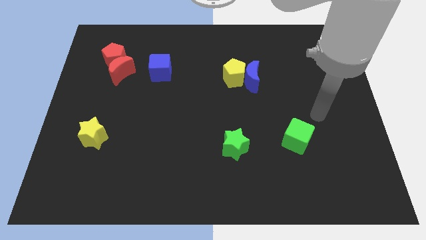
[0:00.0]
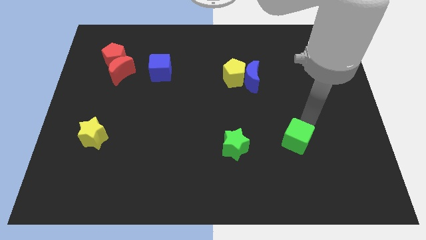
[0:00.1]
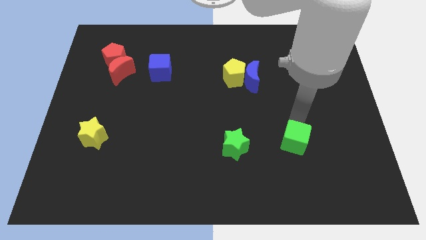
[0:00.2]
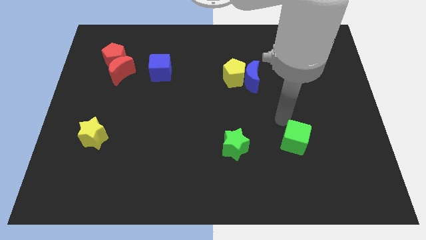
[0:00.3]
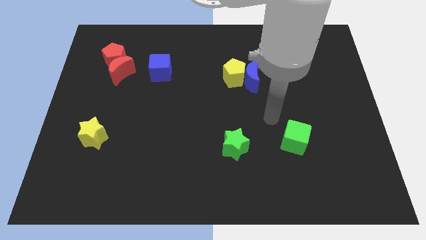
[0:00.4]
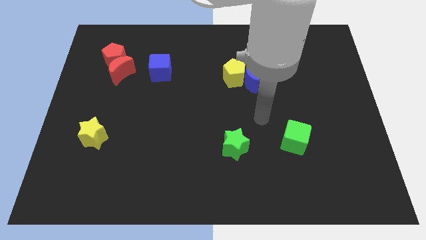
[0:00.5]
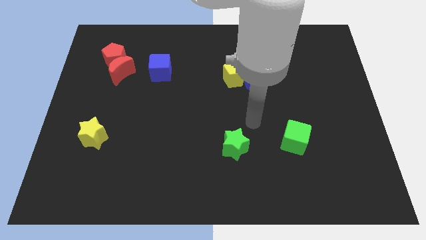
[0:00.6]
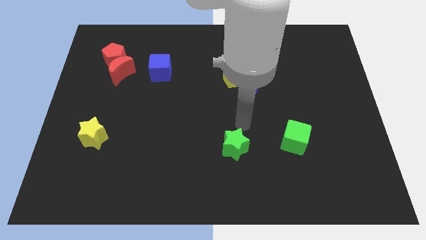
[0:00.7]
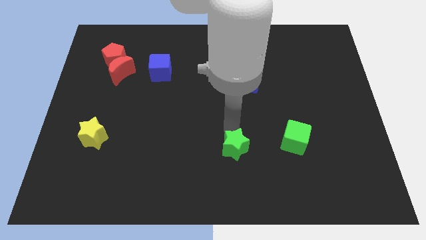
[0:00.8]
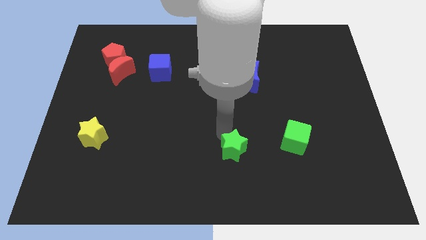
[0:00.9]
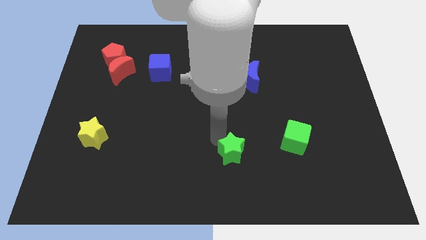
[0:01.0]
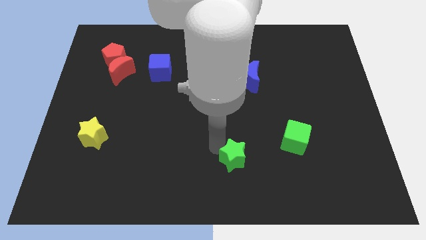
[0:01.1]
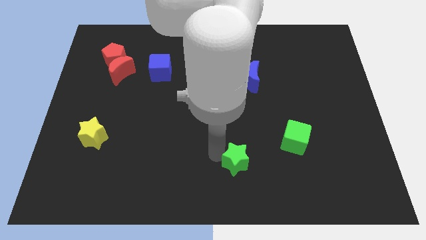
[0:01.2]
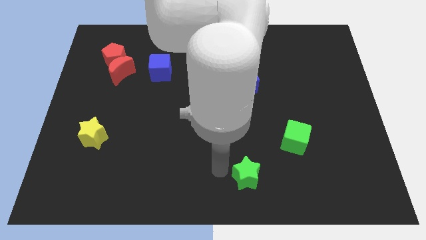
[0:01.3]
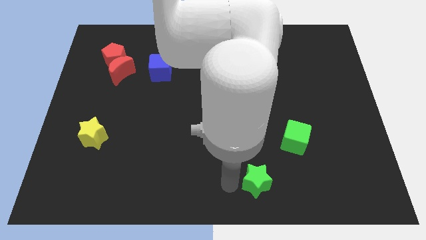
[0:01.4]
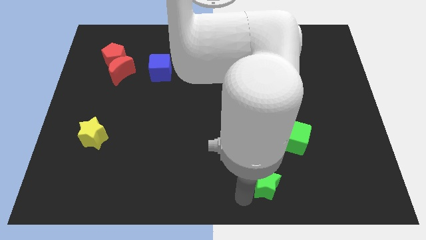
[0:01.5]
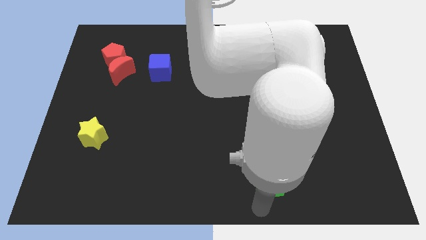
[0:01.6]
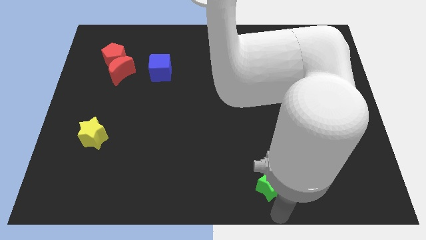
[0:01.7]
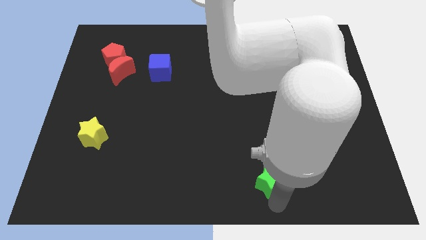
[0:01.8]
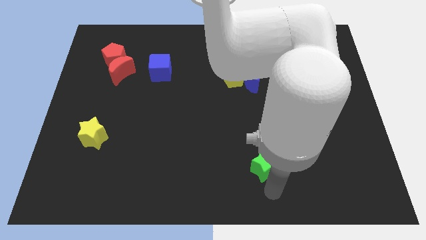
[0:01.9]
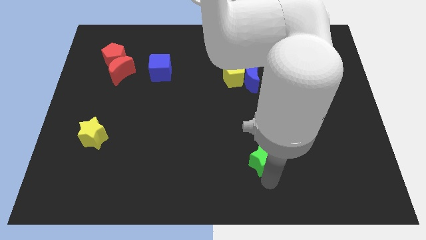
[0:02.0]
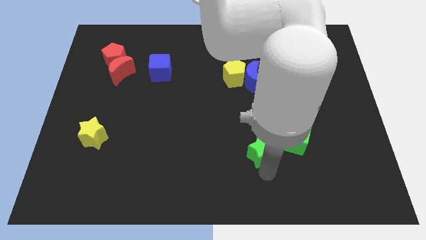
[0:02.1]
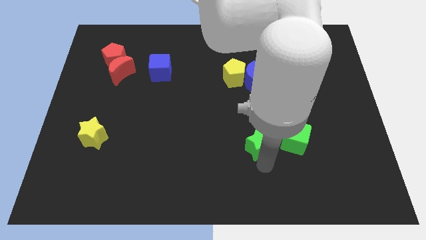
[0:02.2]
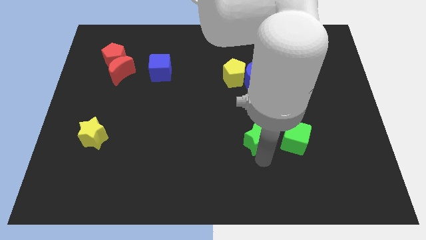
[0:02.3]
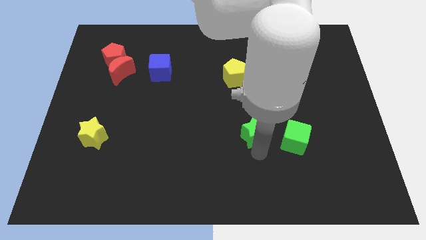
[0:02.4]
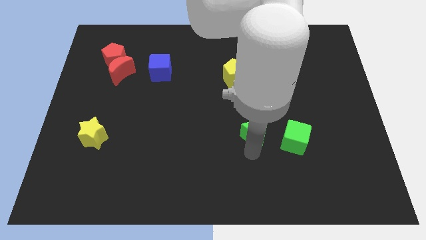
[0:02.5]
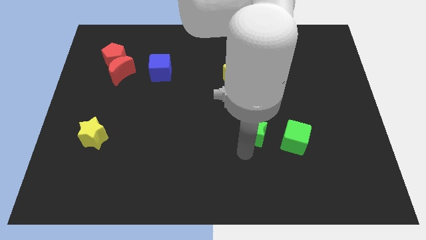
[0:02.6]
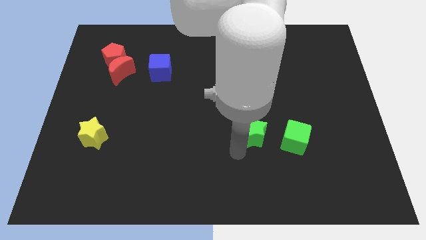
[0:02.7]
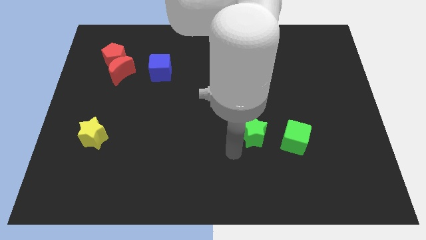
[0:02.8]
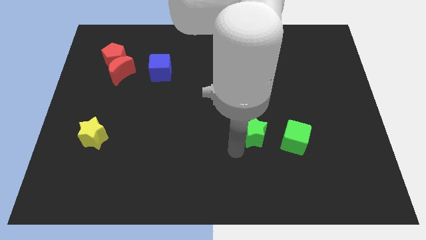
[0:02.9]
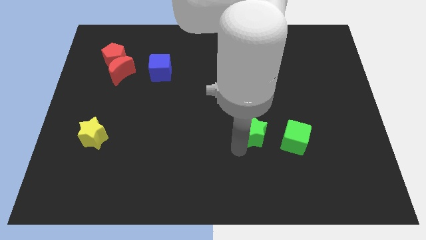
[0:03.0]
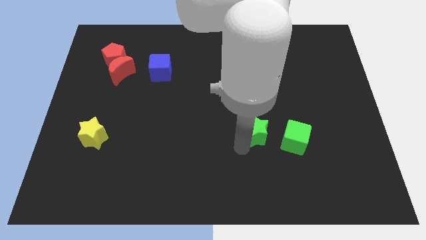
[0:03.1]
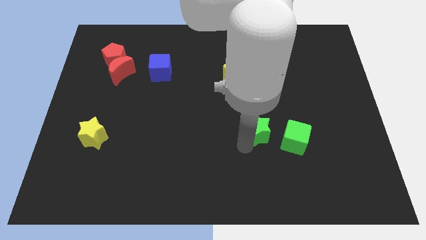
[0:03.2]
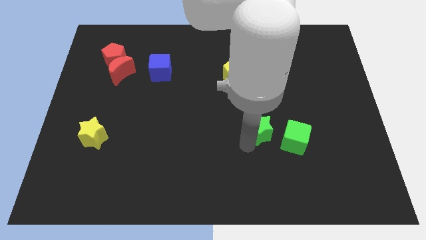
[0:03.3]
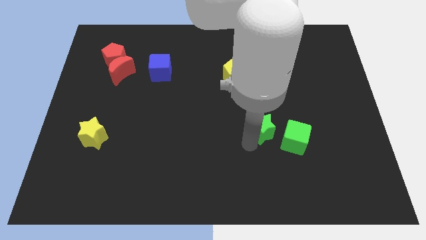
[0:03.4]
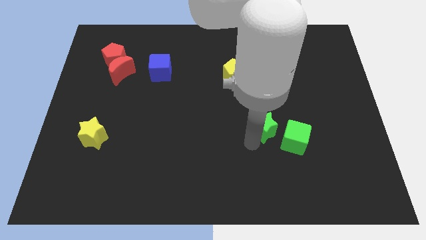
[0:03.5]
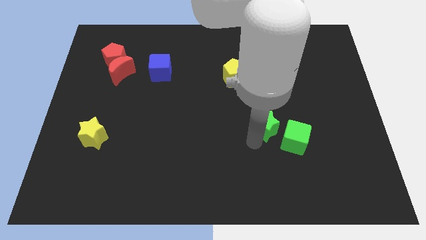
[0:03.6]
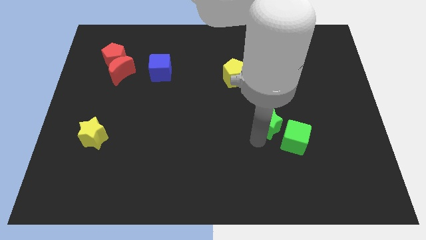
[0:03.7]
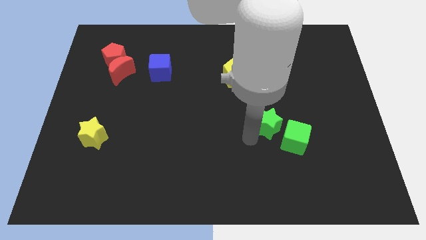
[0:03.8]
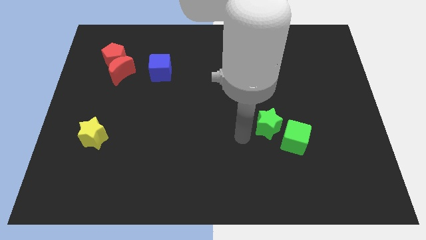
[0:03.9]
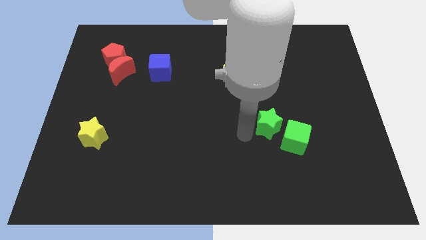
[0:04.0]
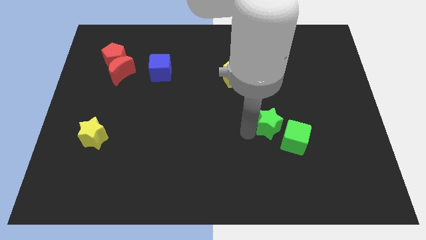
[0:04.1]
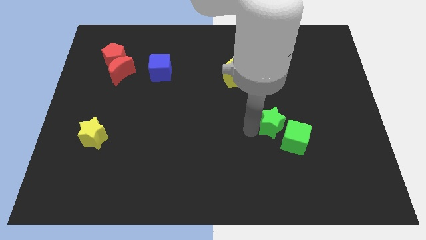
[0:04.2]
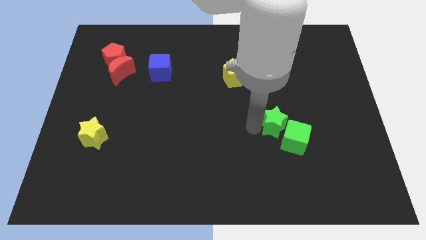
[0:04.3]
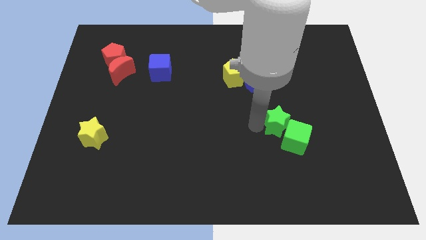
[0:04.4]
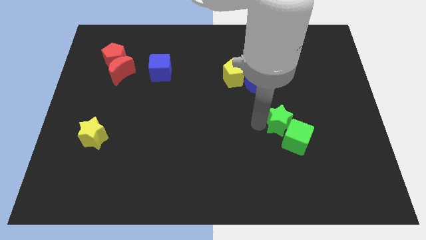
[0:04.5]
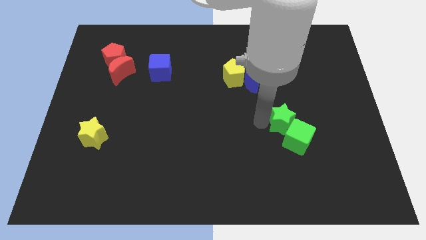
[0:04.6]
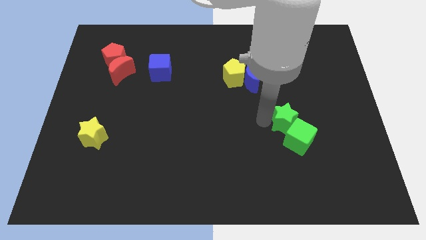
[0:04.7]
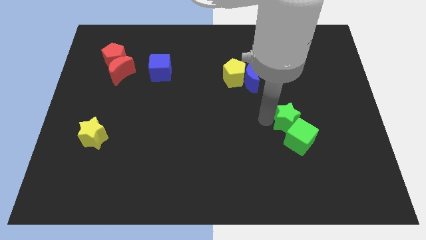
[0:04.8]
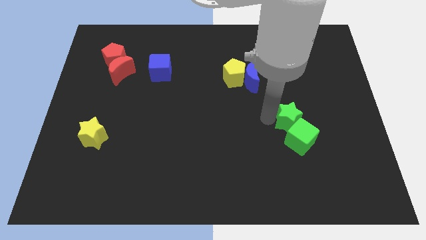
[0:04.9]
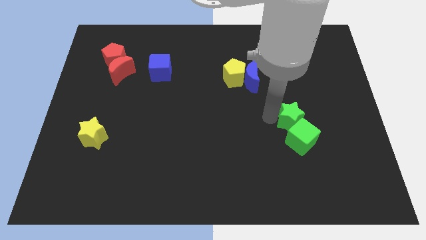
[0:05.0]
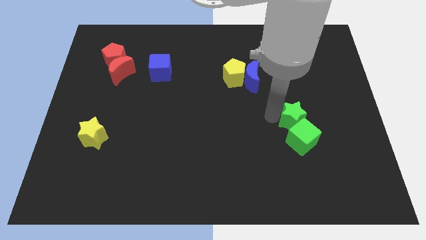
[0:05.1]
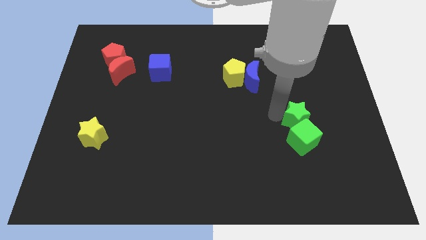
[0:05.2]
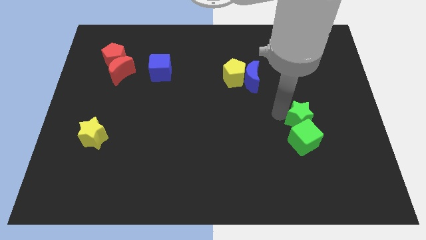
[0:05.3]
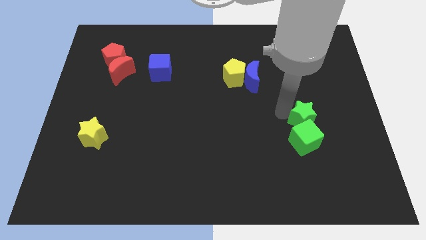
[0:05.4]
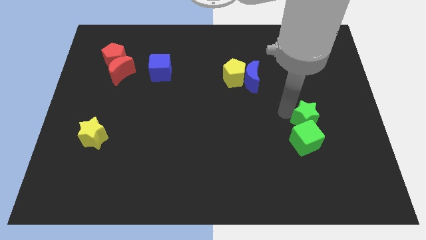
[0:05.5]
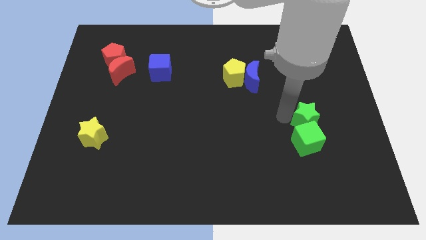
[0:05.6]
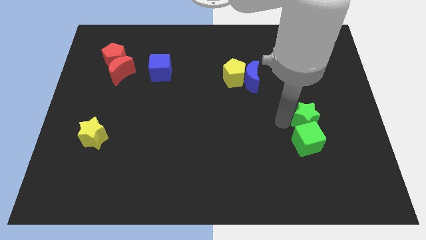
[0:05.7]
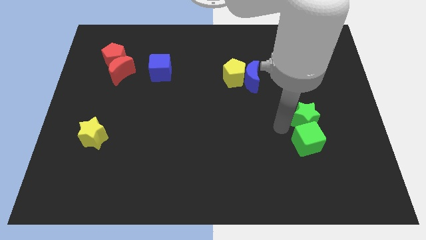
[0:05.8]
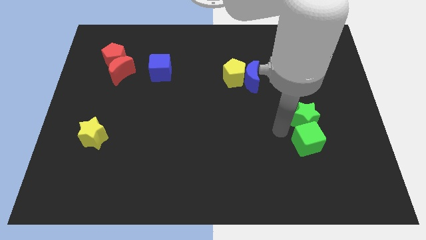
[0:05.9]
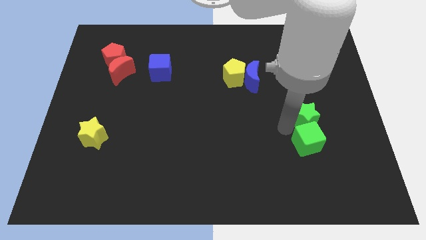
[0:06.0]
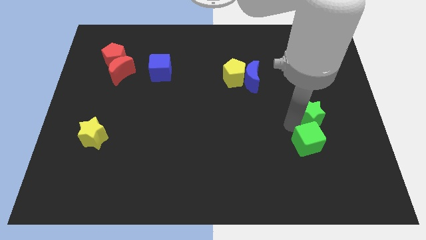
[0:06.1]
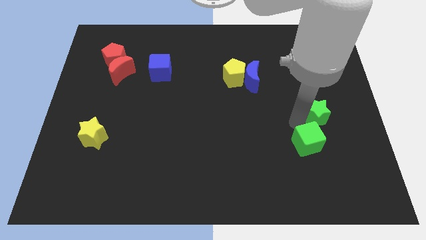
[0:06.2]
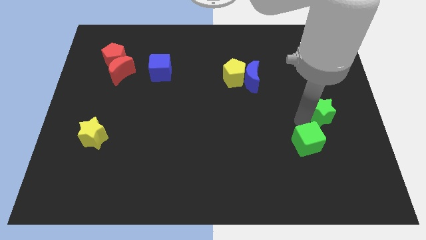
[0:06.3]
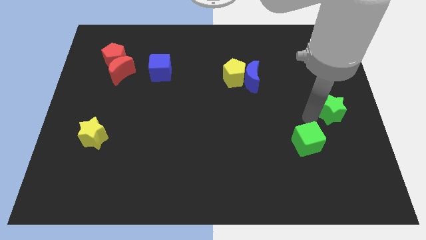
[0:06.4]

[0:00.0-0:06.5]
put the green star to the right side of the board
